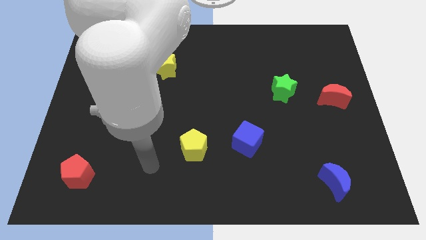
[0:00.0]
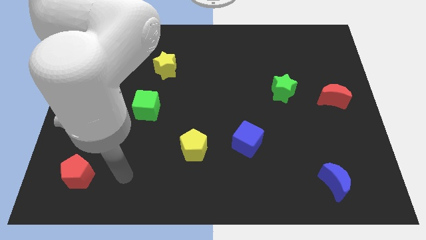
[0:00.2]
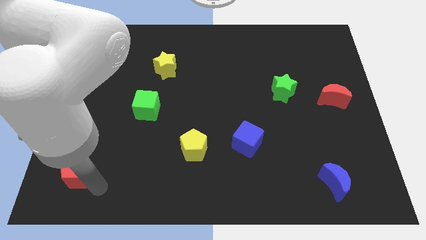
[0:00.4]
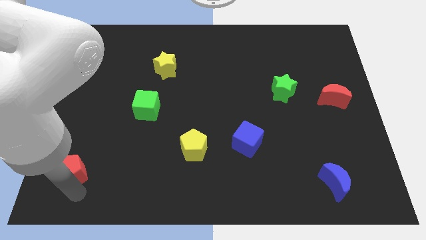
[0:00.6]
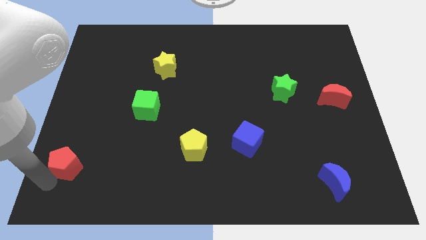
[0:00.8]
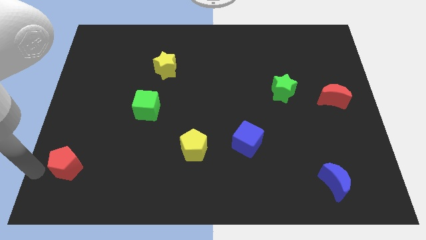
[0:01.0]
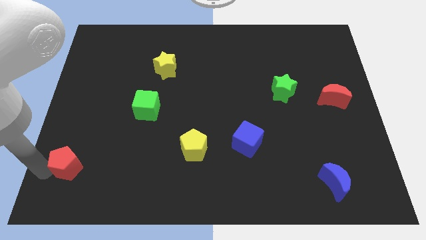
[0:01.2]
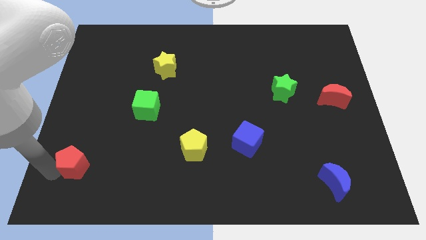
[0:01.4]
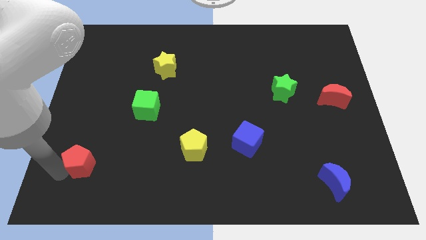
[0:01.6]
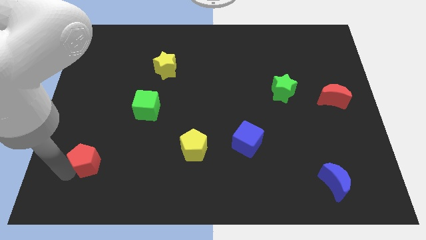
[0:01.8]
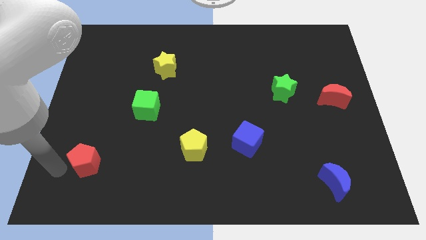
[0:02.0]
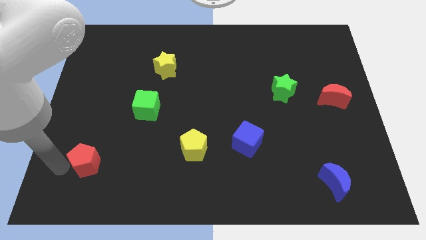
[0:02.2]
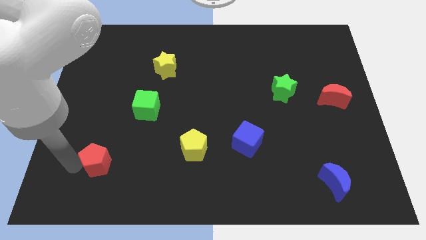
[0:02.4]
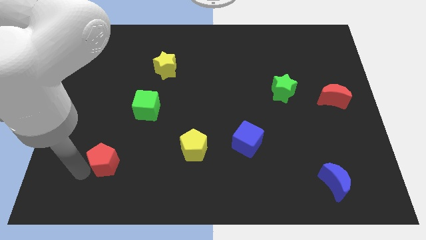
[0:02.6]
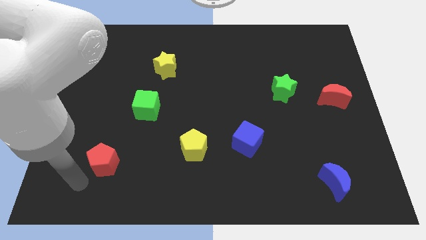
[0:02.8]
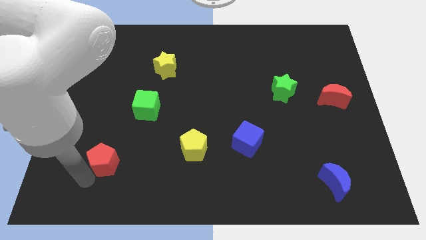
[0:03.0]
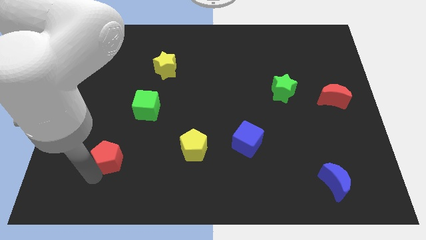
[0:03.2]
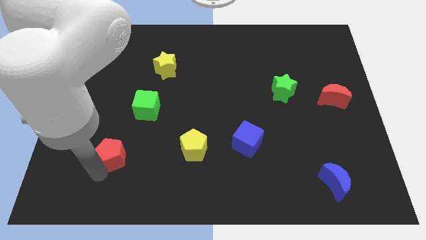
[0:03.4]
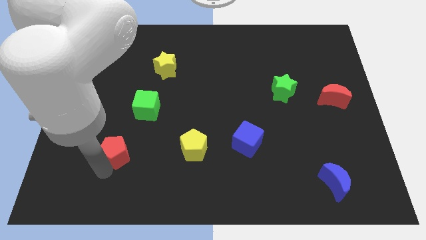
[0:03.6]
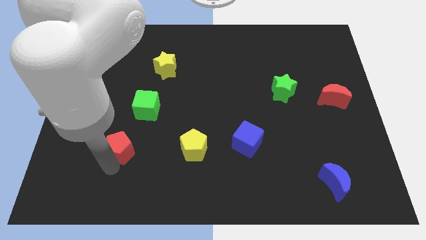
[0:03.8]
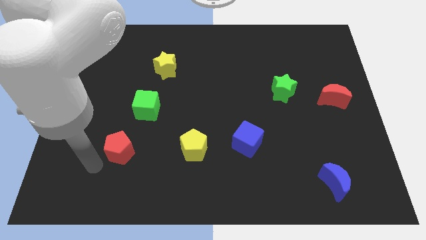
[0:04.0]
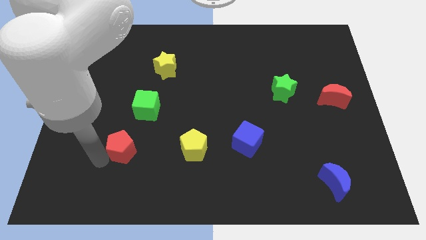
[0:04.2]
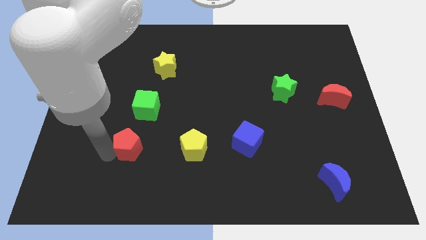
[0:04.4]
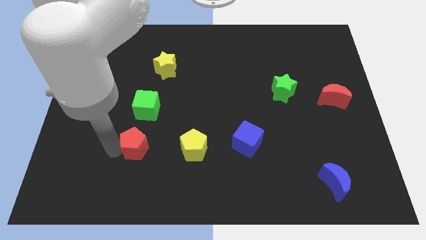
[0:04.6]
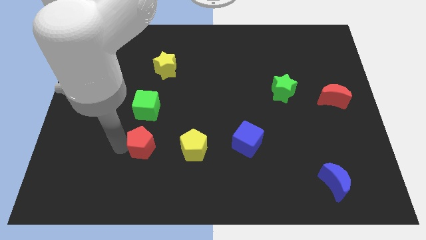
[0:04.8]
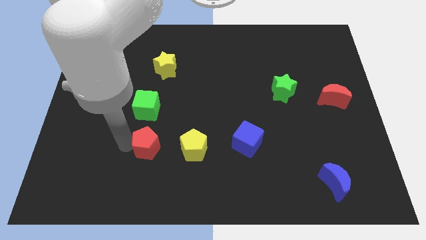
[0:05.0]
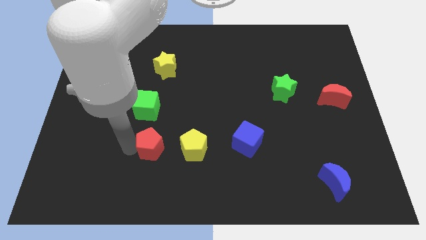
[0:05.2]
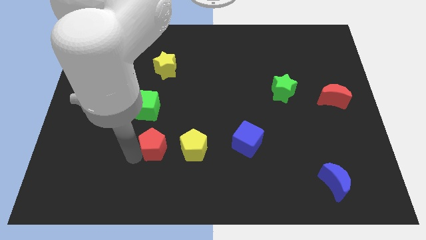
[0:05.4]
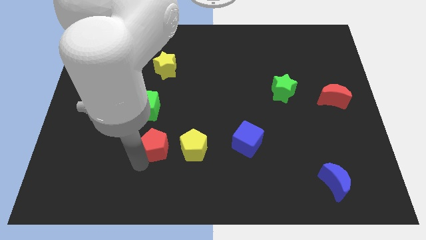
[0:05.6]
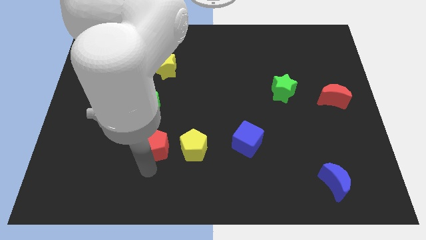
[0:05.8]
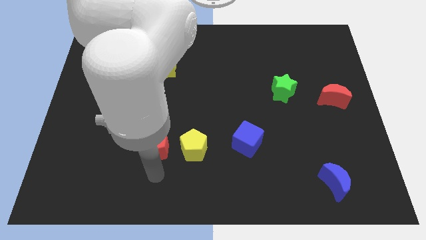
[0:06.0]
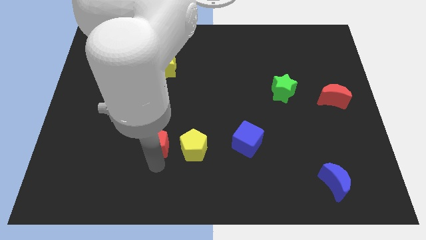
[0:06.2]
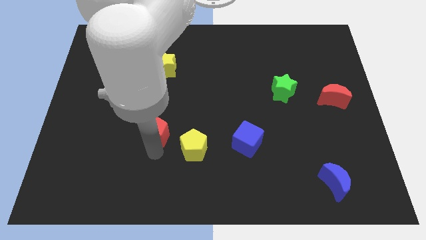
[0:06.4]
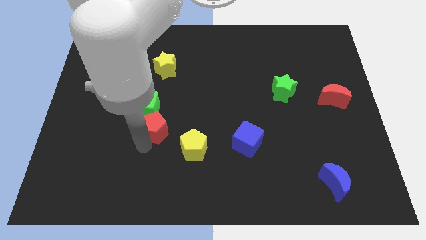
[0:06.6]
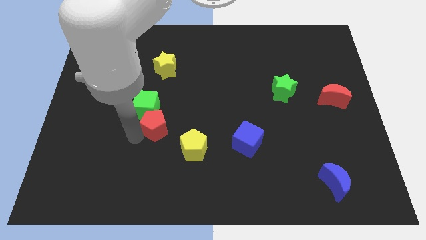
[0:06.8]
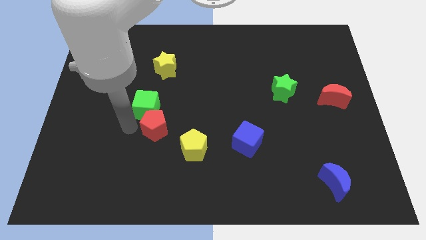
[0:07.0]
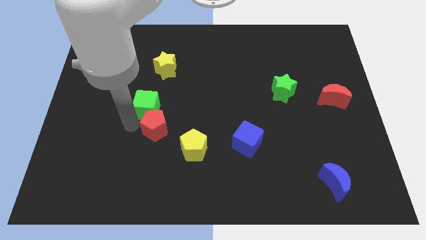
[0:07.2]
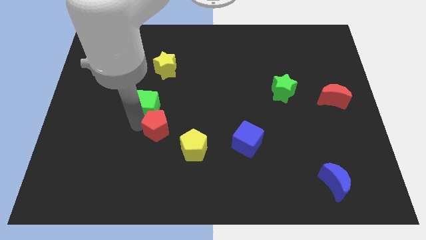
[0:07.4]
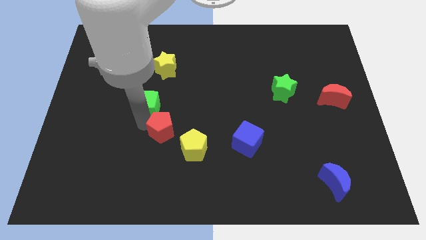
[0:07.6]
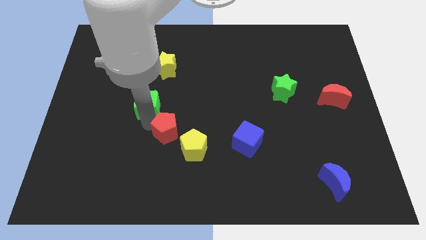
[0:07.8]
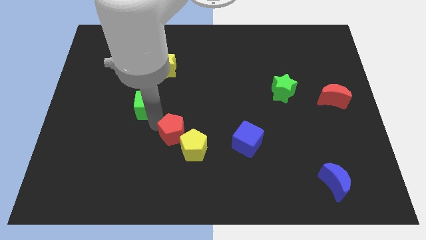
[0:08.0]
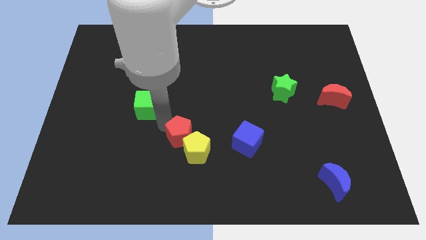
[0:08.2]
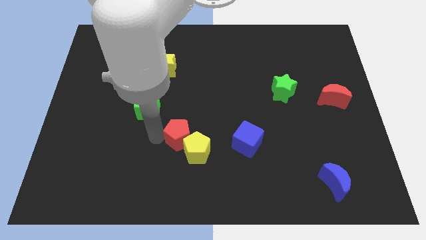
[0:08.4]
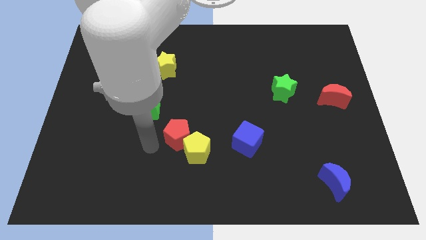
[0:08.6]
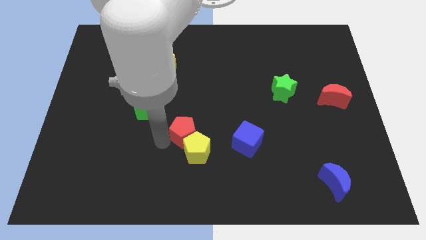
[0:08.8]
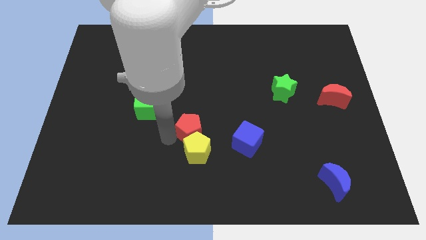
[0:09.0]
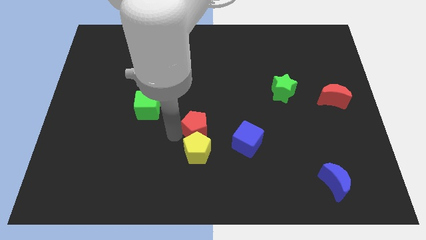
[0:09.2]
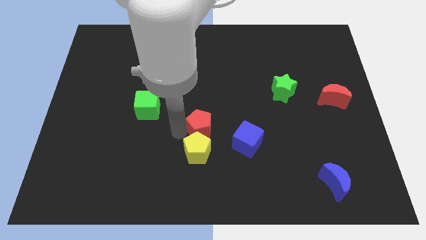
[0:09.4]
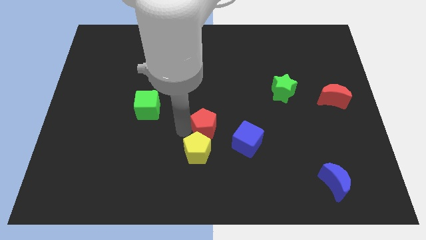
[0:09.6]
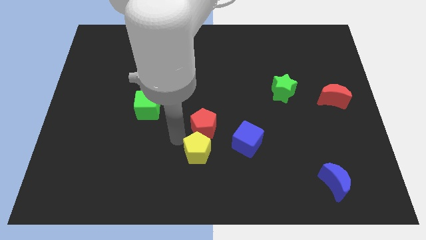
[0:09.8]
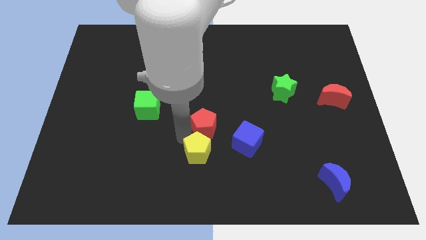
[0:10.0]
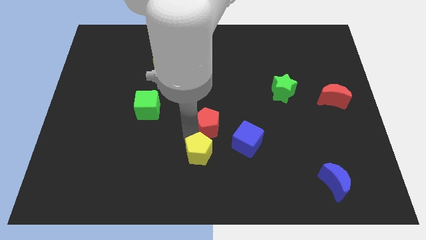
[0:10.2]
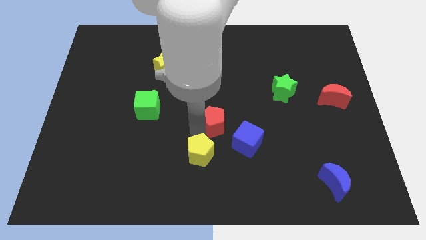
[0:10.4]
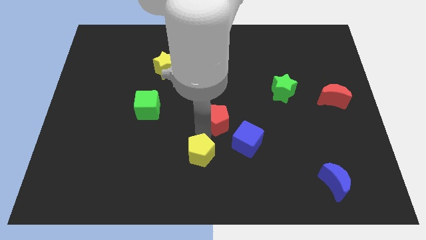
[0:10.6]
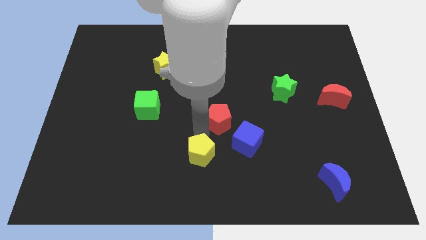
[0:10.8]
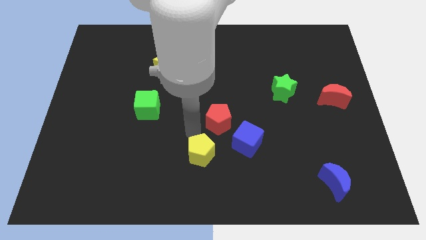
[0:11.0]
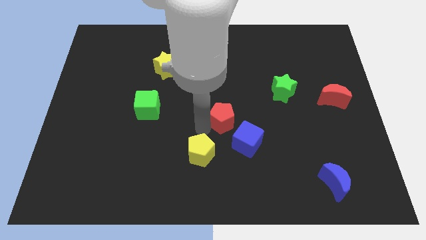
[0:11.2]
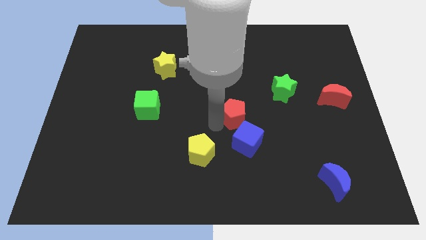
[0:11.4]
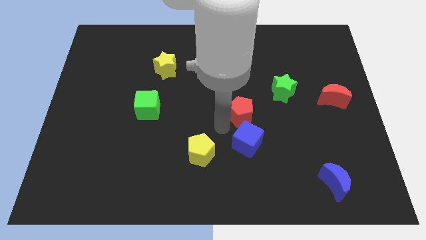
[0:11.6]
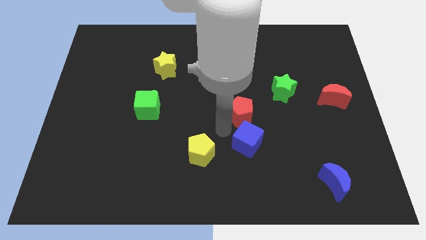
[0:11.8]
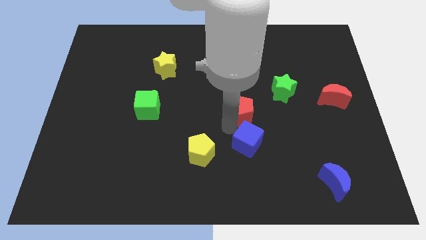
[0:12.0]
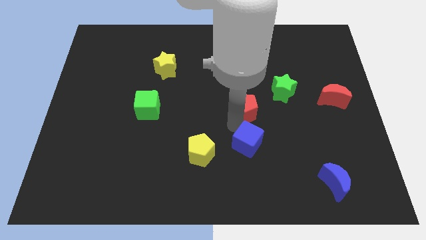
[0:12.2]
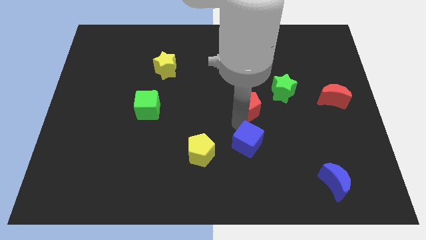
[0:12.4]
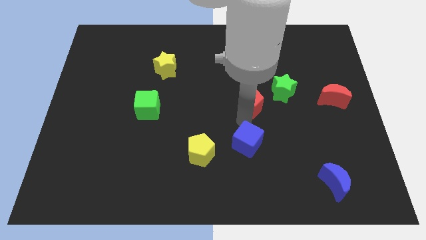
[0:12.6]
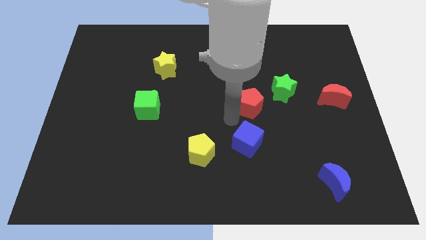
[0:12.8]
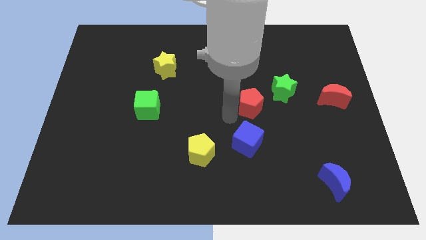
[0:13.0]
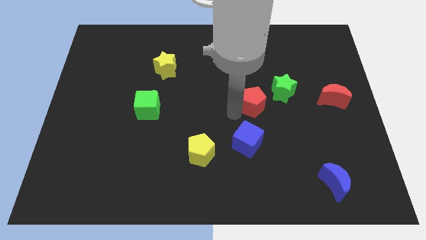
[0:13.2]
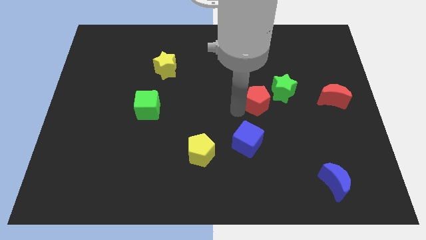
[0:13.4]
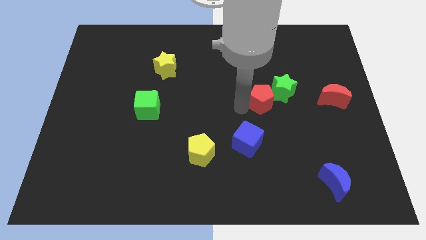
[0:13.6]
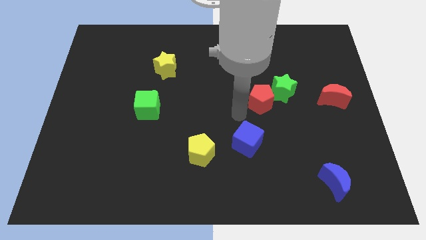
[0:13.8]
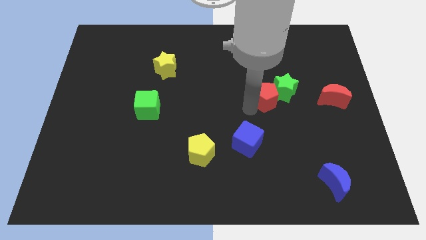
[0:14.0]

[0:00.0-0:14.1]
put the red pentagon next to the green star

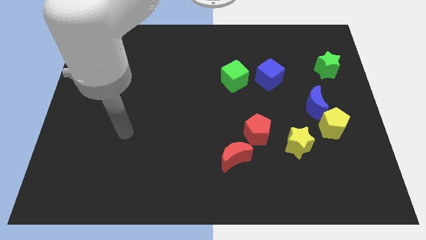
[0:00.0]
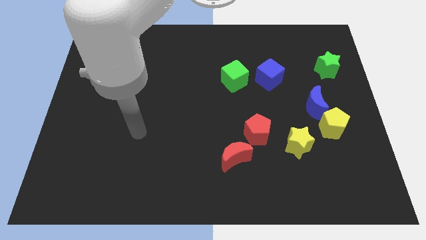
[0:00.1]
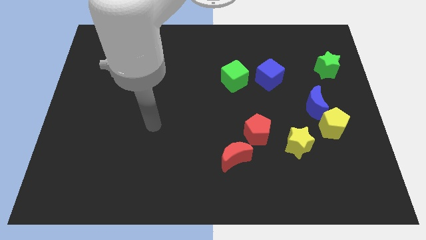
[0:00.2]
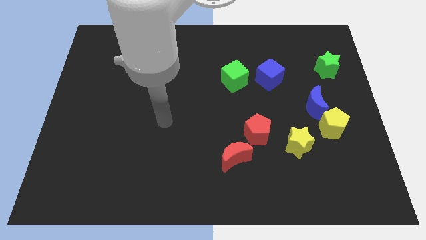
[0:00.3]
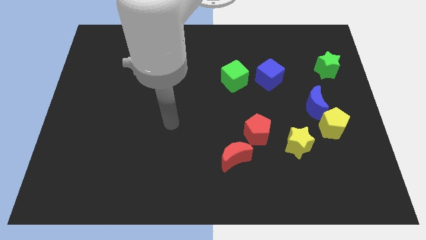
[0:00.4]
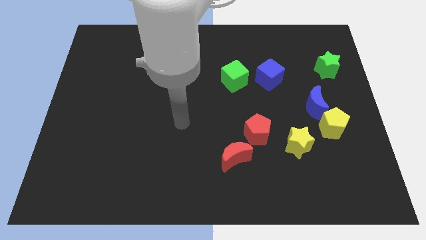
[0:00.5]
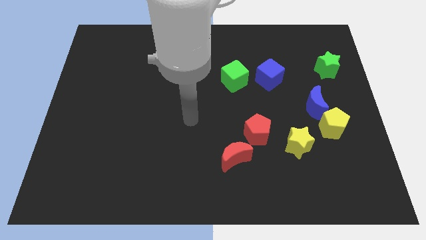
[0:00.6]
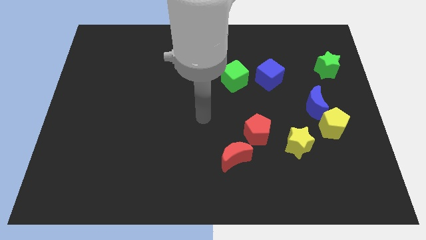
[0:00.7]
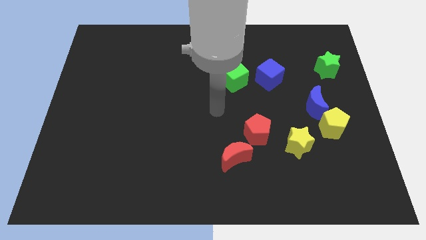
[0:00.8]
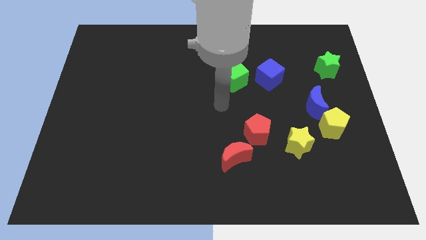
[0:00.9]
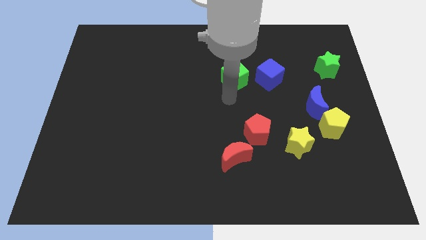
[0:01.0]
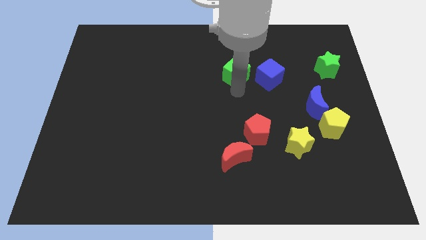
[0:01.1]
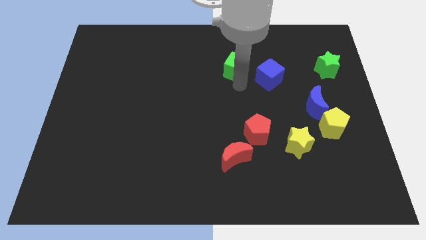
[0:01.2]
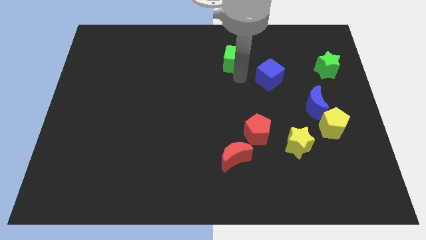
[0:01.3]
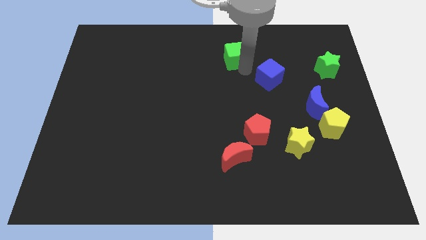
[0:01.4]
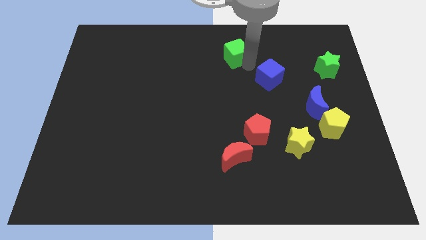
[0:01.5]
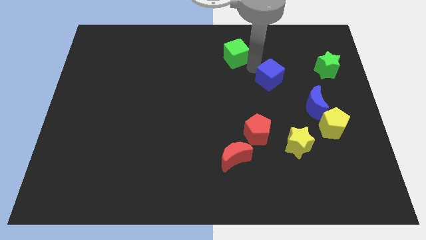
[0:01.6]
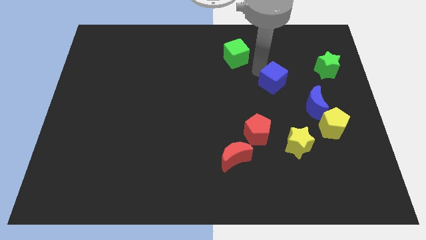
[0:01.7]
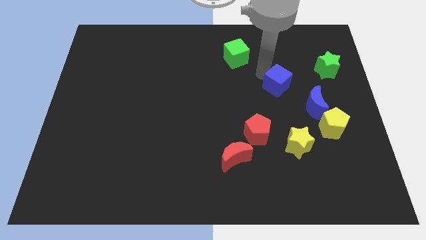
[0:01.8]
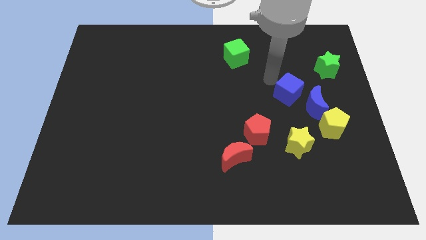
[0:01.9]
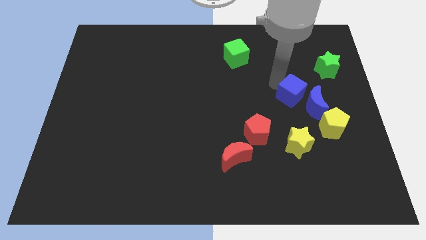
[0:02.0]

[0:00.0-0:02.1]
slide the blue cube to the blue moon
